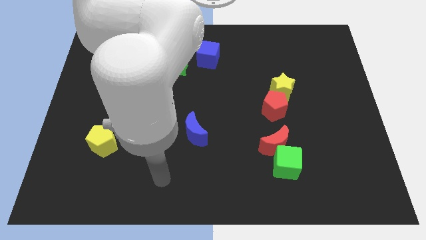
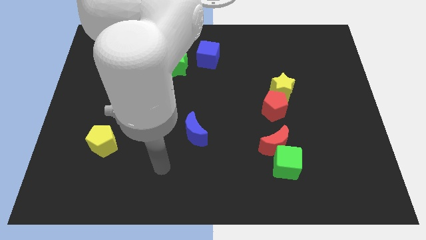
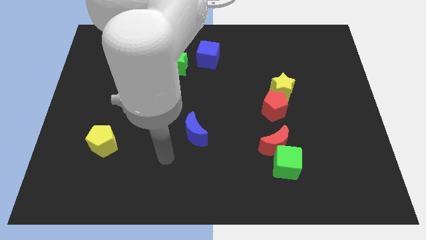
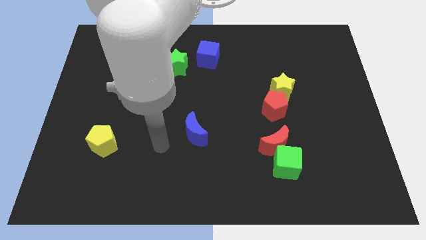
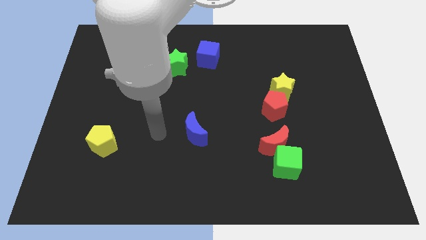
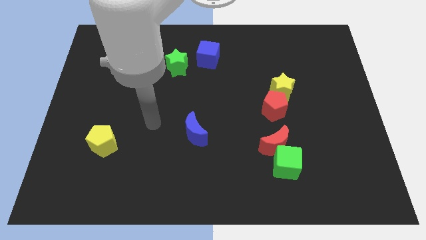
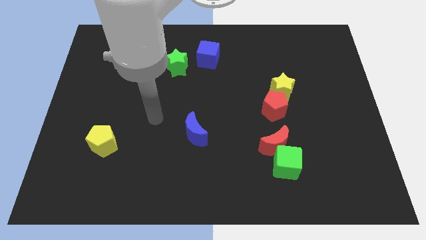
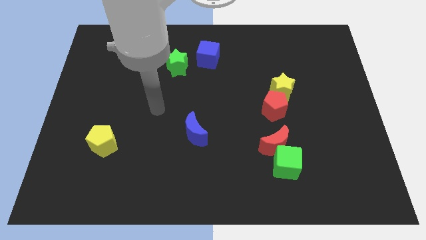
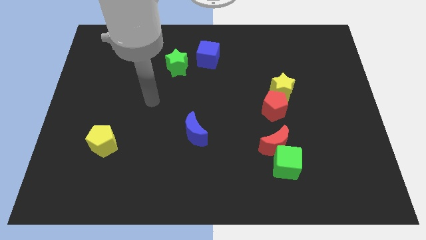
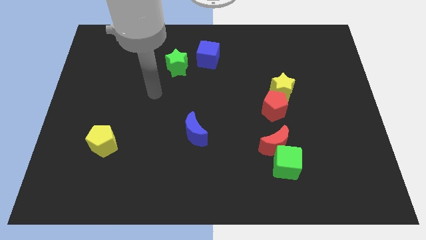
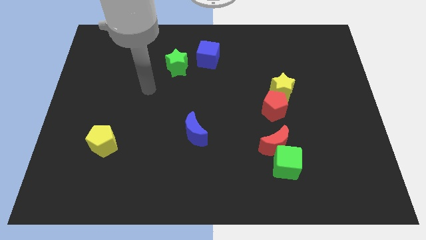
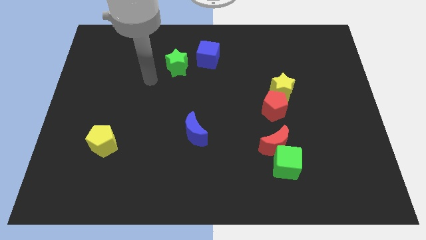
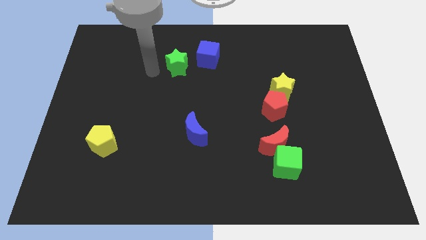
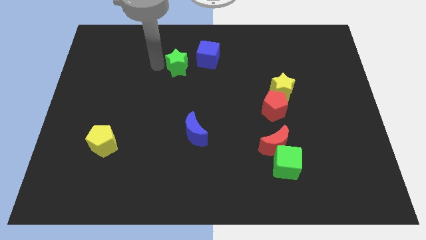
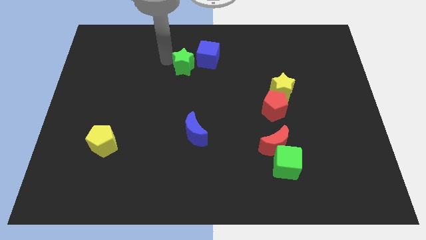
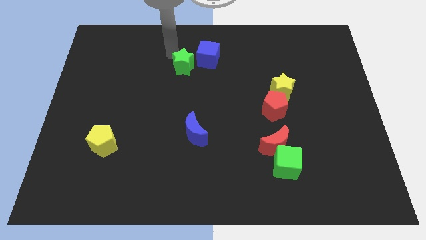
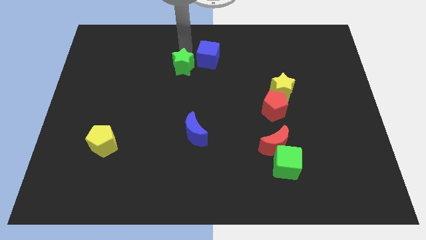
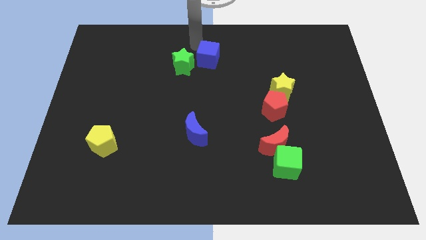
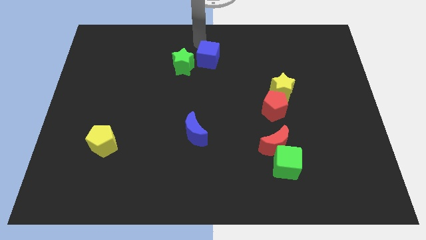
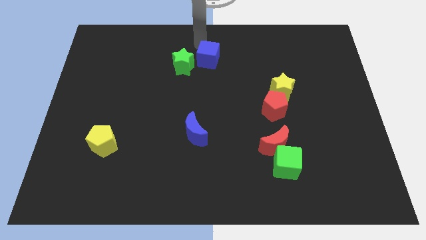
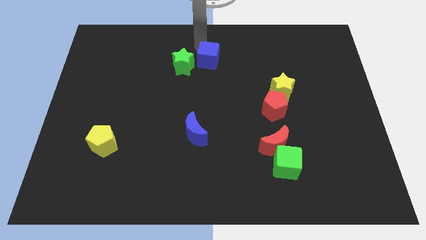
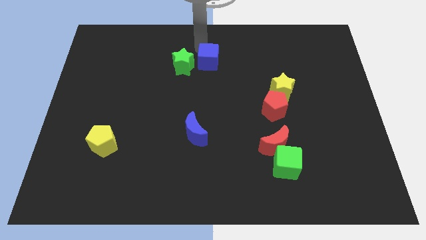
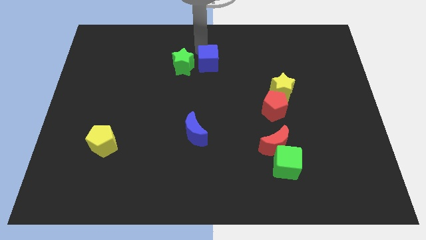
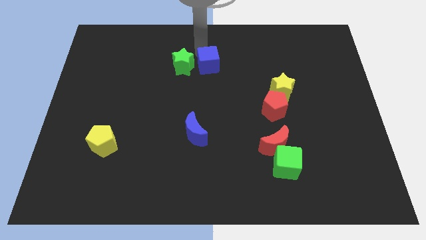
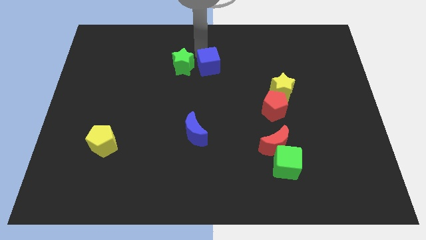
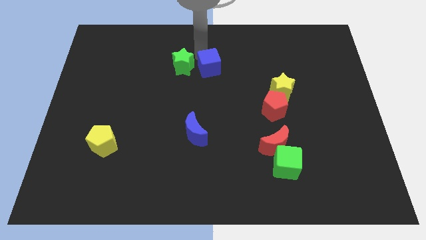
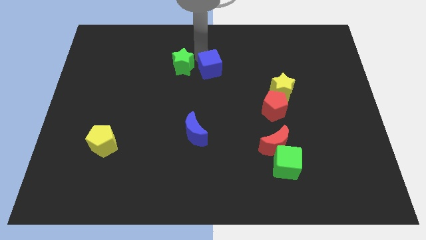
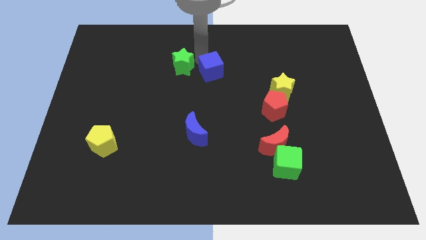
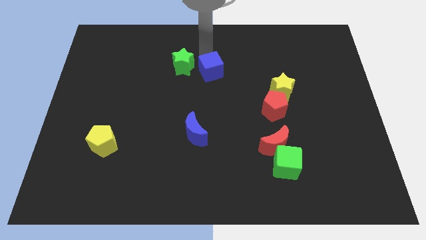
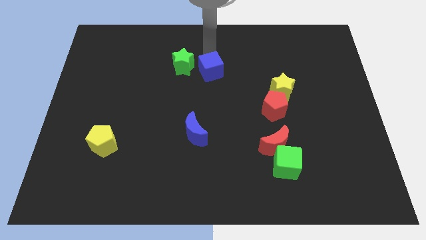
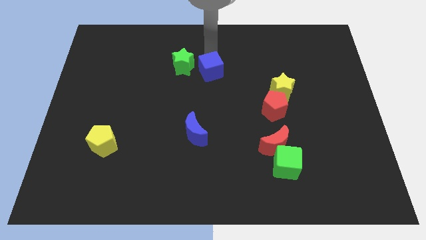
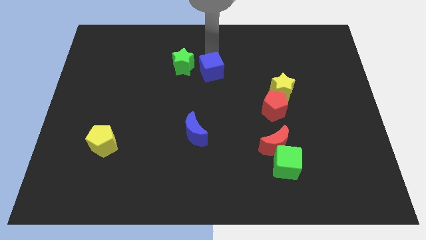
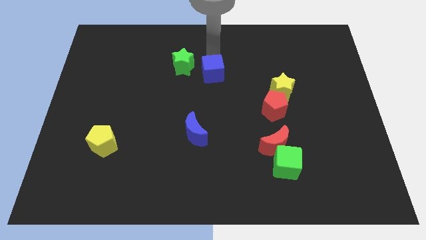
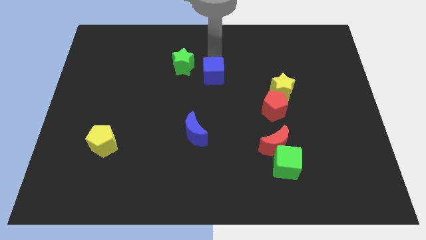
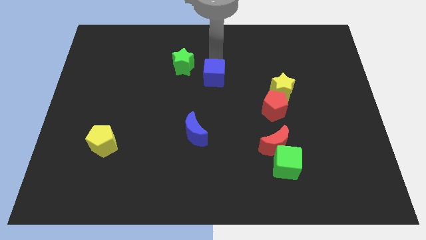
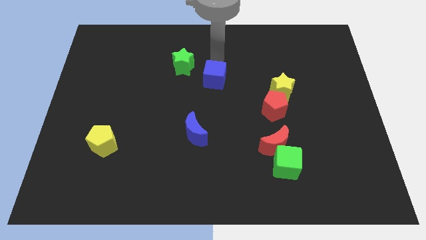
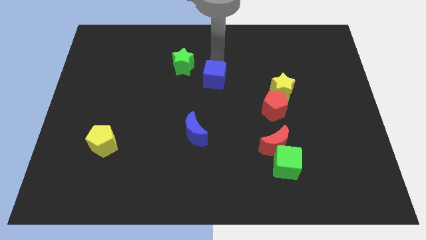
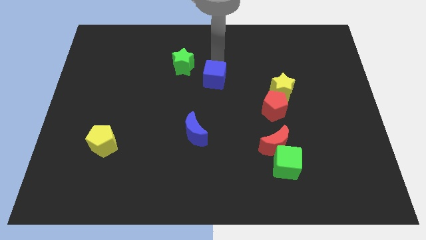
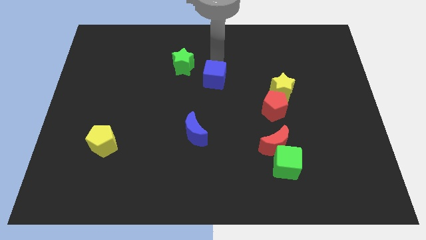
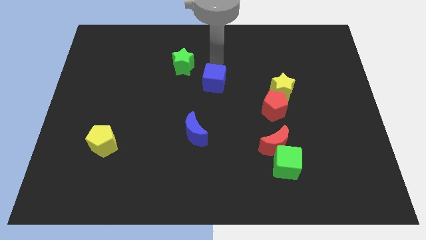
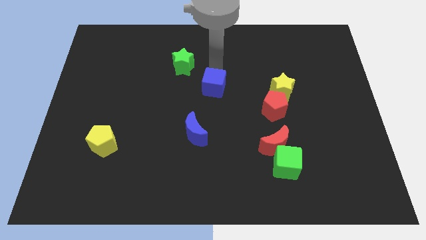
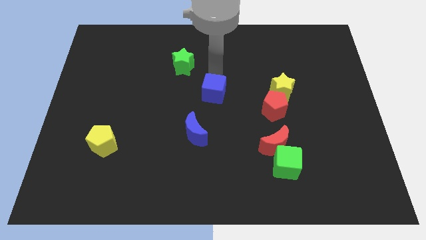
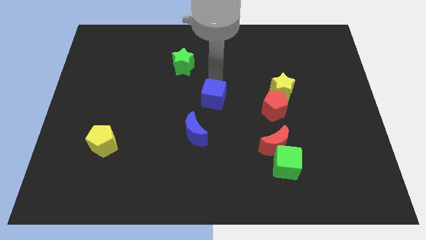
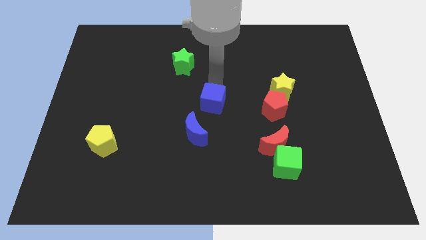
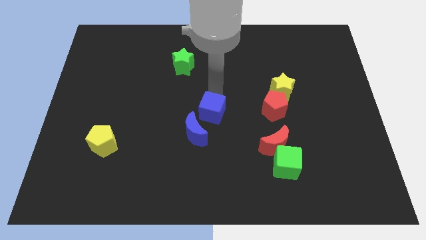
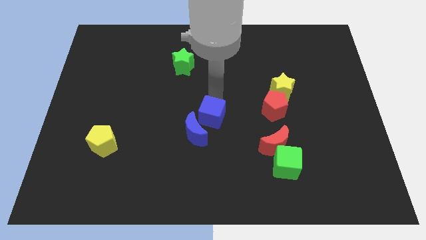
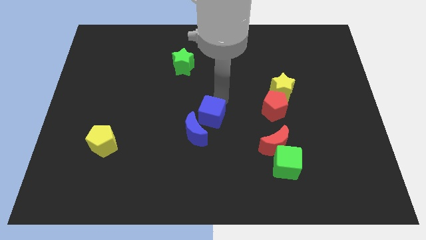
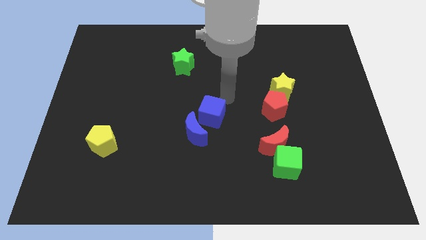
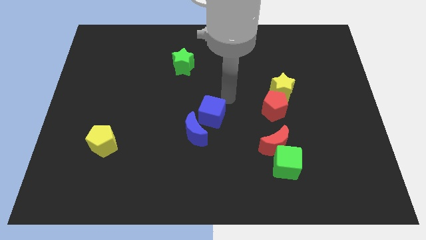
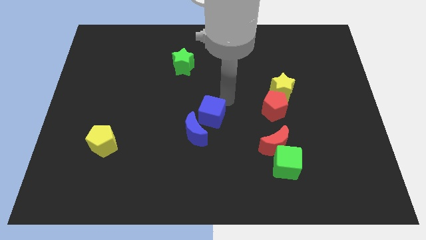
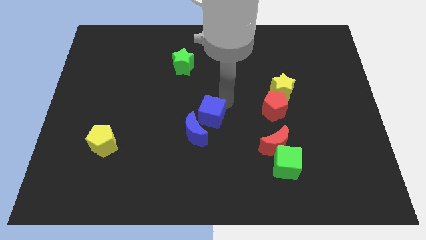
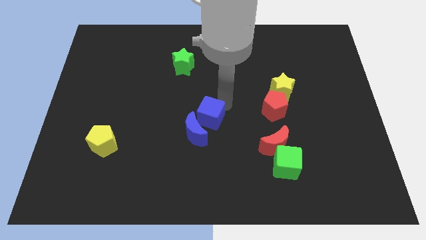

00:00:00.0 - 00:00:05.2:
put the blue cube towards the blue moon

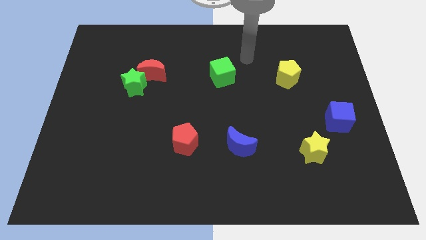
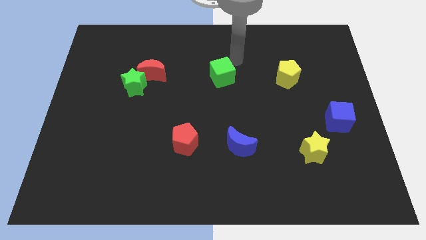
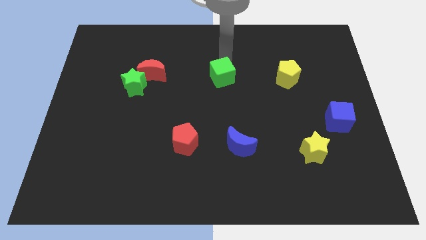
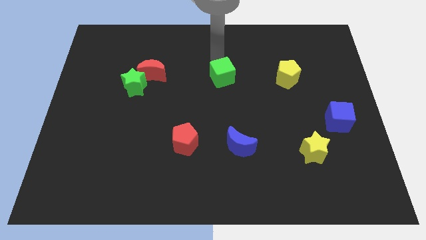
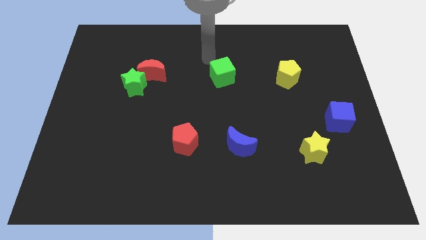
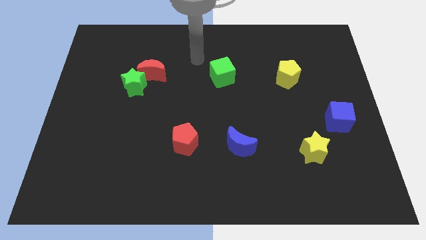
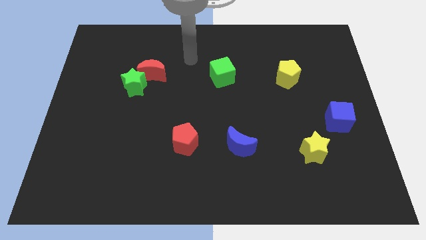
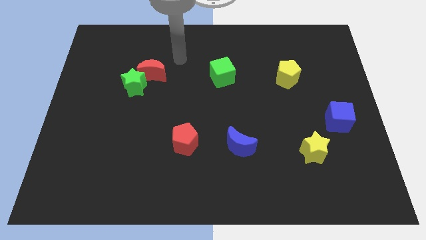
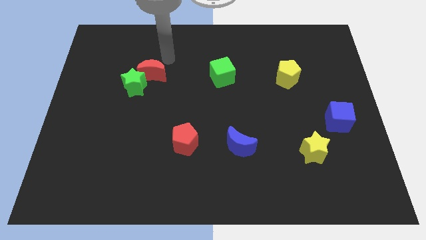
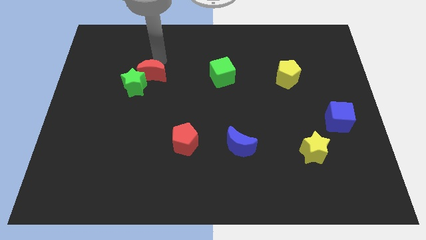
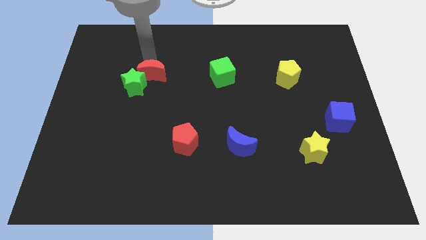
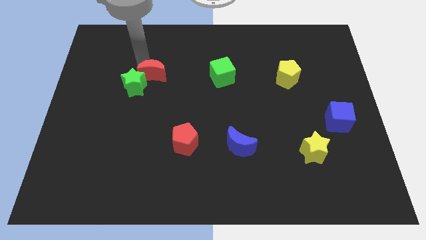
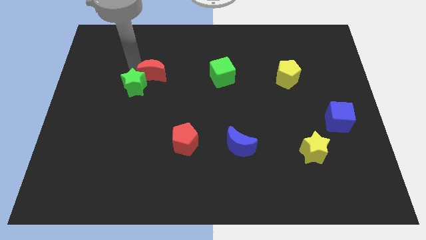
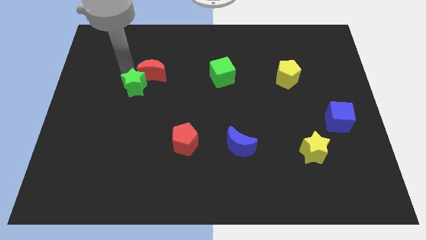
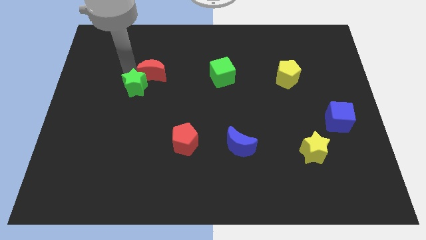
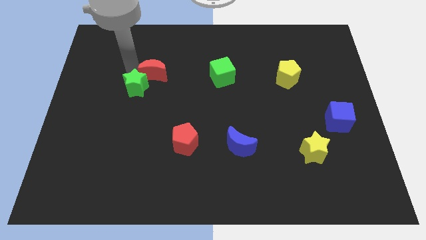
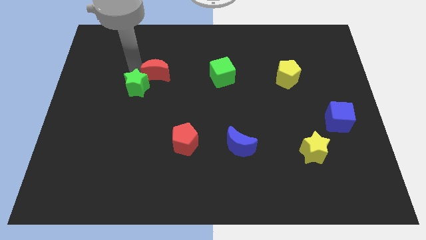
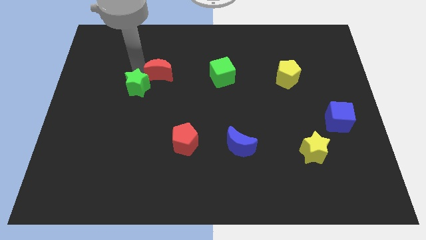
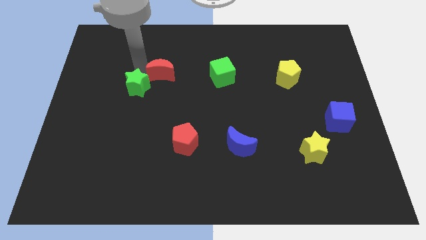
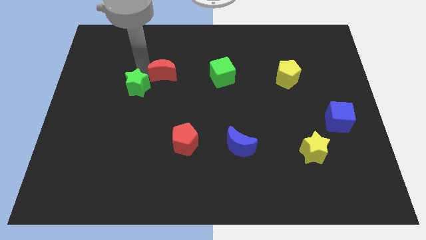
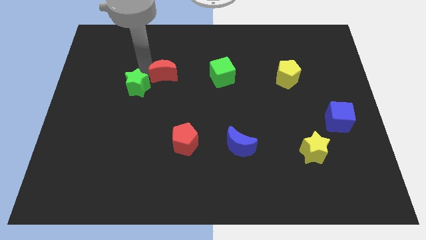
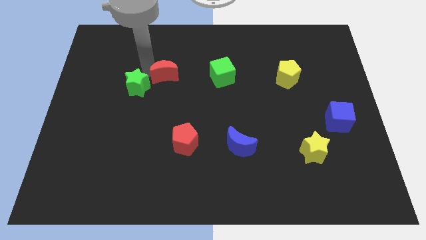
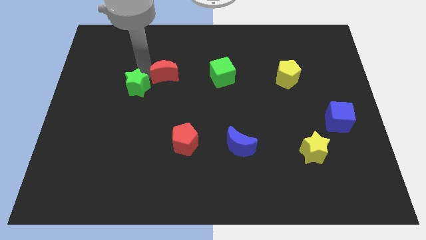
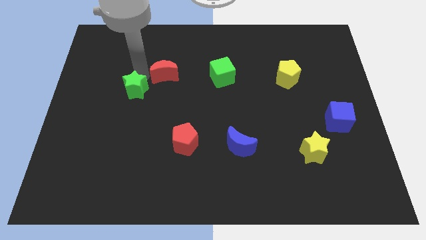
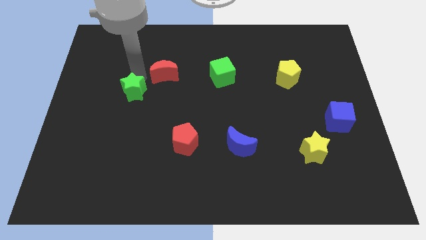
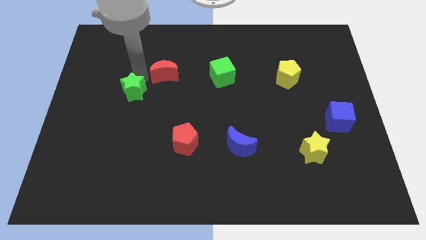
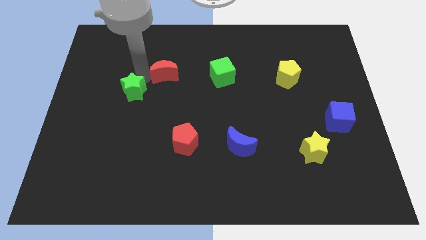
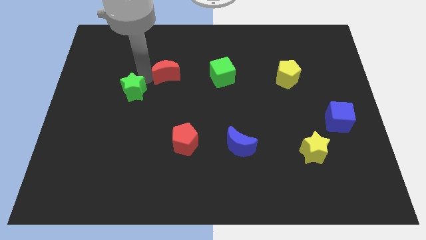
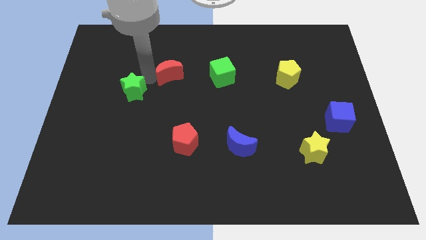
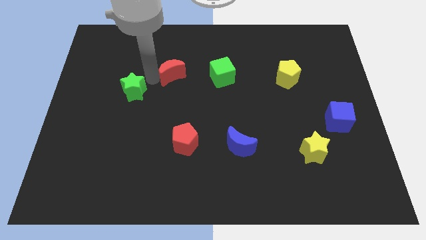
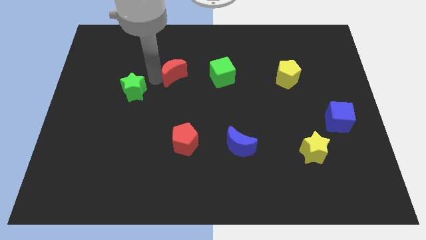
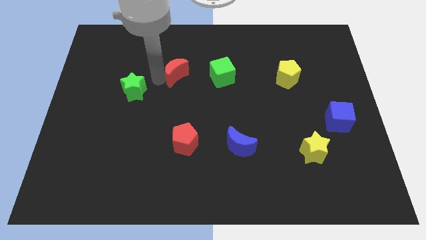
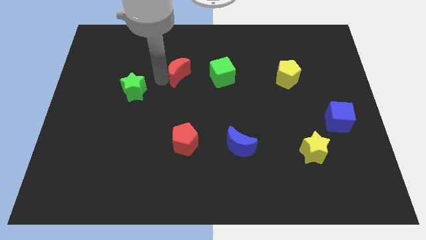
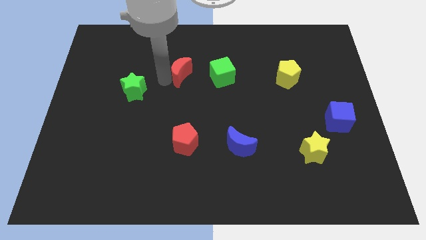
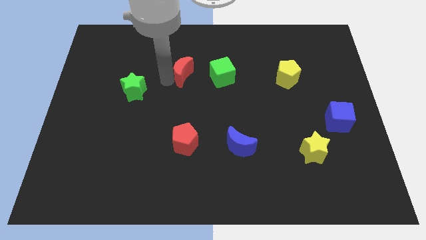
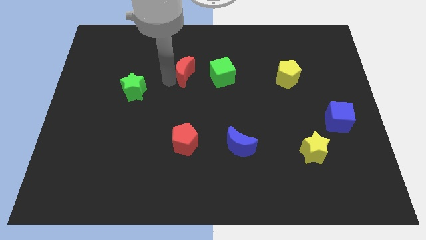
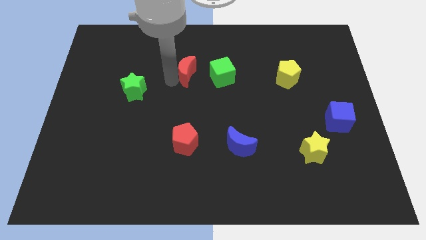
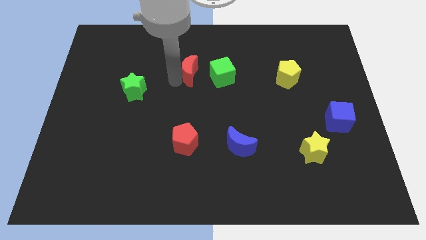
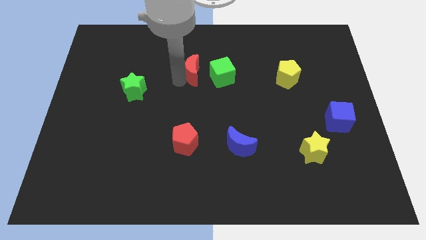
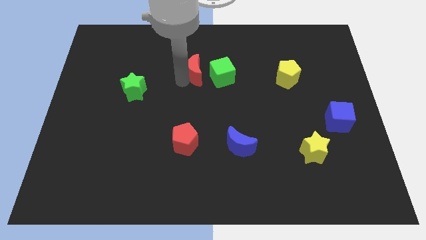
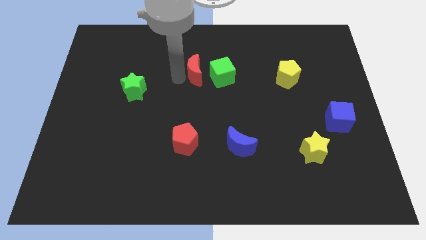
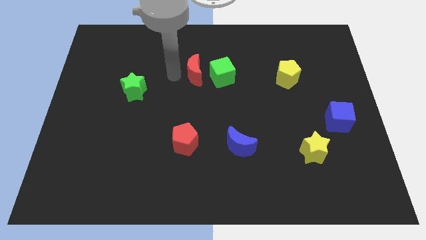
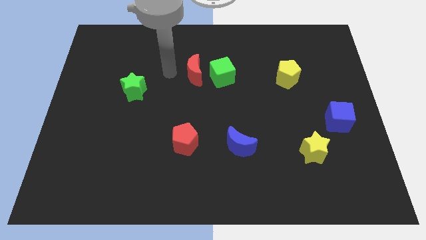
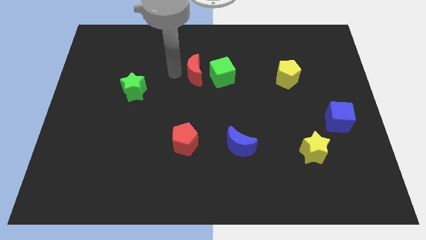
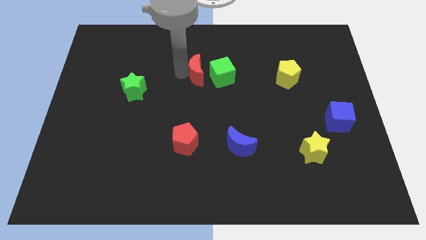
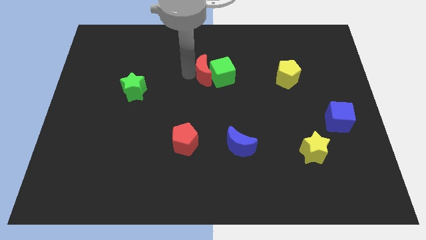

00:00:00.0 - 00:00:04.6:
move the red moon to the green cube
